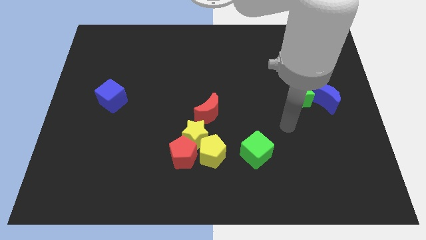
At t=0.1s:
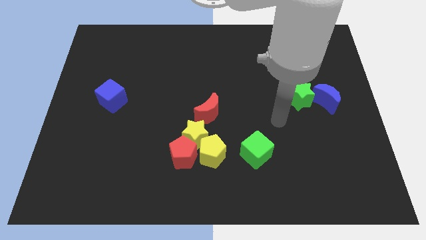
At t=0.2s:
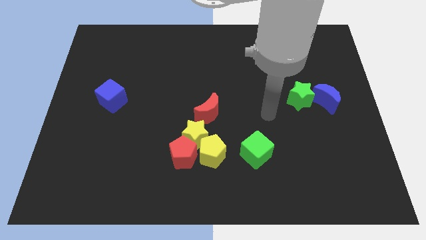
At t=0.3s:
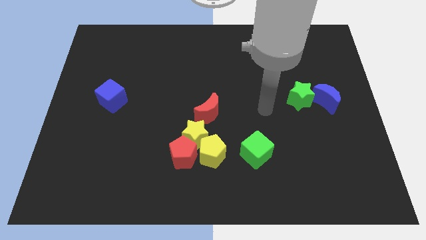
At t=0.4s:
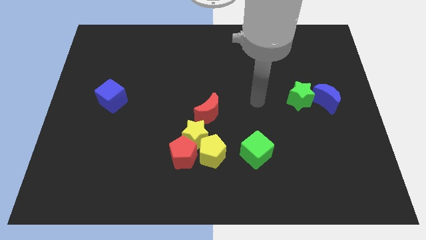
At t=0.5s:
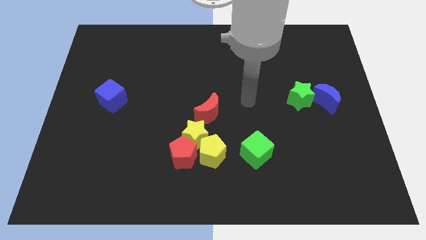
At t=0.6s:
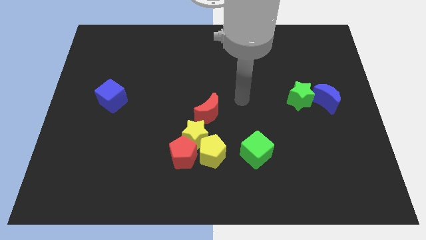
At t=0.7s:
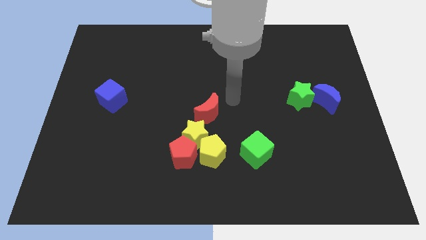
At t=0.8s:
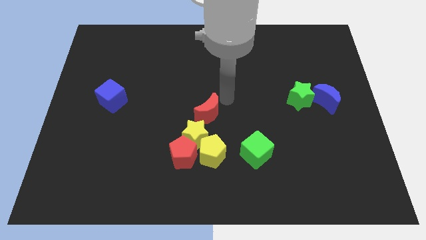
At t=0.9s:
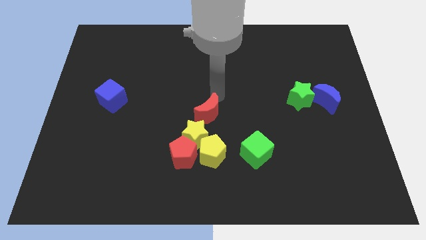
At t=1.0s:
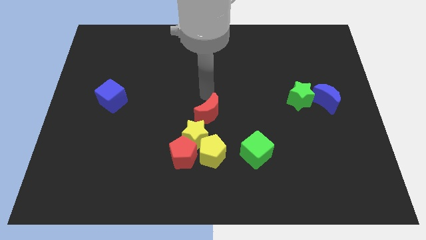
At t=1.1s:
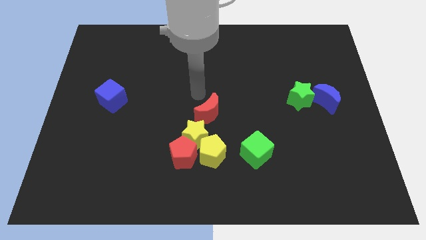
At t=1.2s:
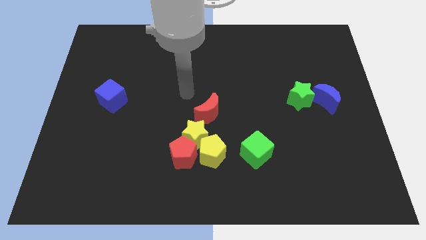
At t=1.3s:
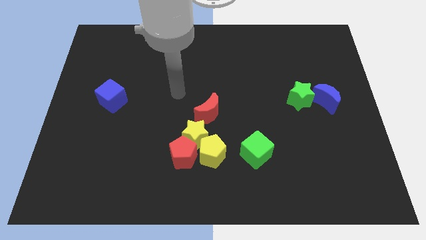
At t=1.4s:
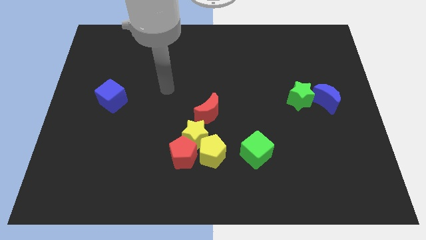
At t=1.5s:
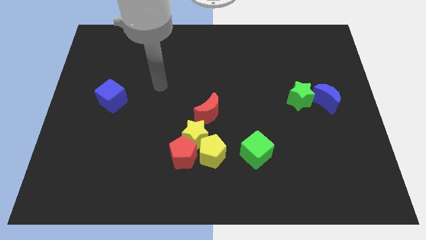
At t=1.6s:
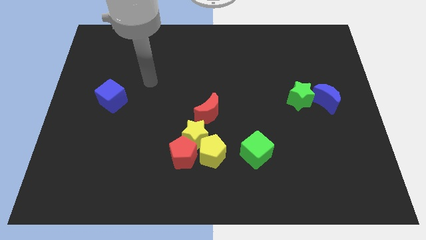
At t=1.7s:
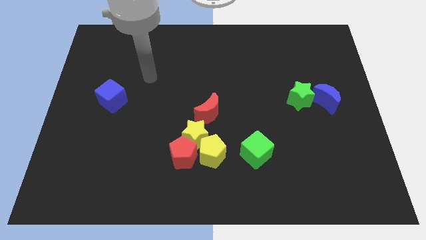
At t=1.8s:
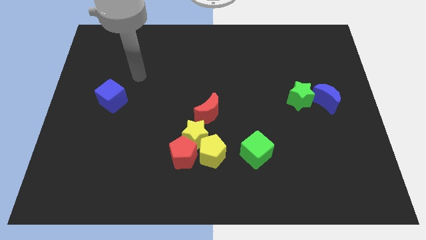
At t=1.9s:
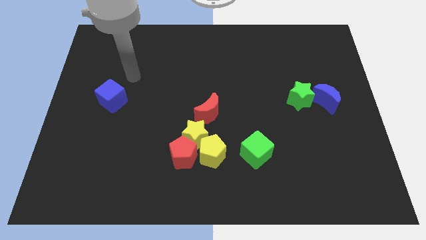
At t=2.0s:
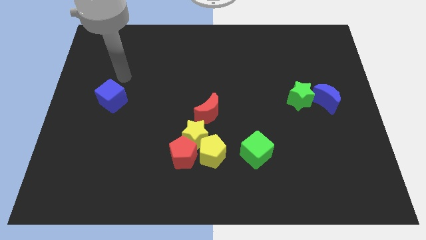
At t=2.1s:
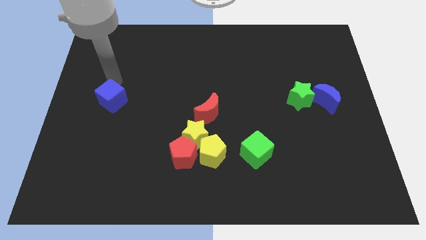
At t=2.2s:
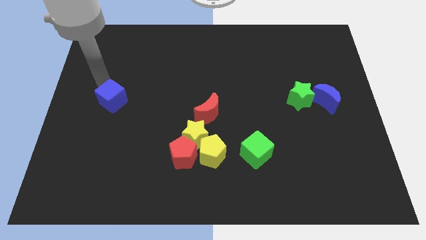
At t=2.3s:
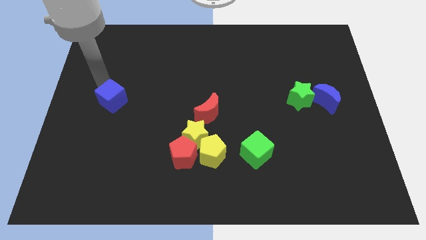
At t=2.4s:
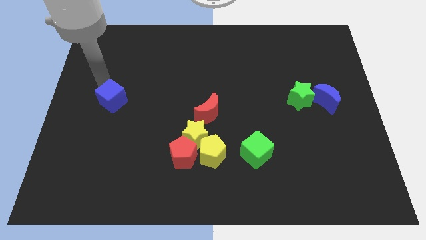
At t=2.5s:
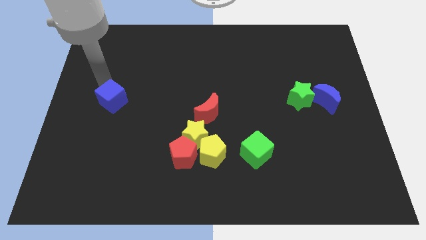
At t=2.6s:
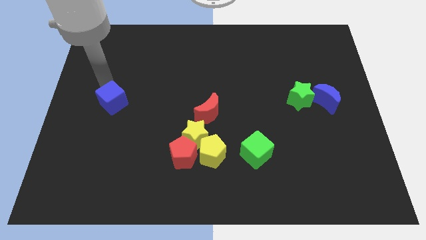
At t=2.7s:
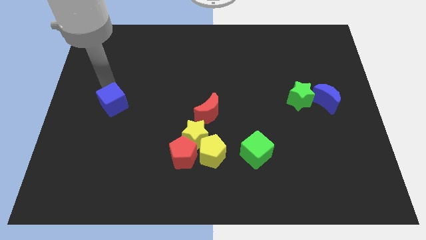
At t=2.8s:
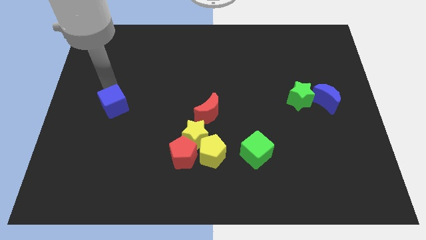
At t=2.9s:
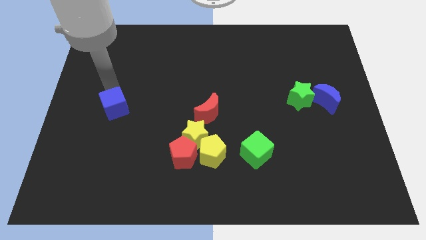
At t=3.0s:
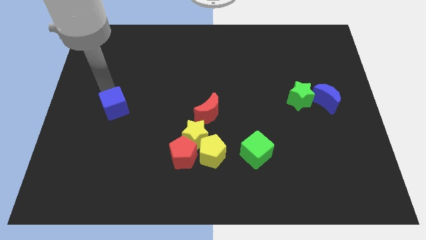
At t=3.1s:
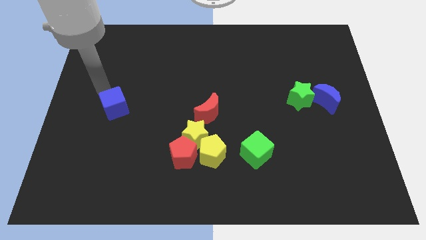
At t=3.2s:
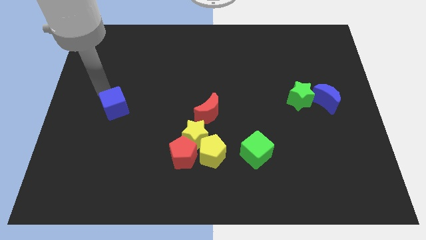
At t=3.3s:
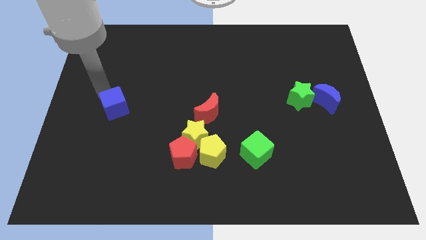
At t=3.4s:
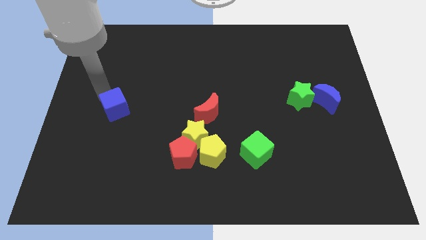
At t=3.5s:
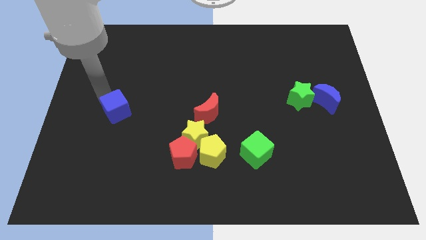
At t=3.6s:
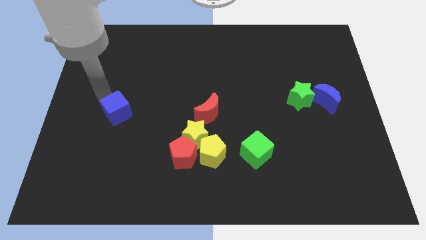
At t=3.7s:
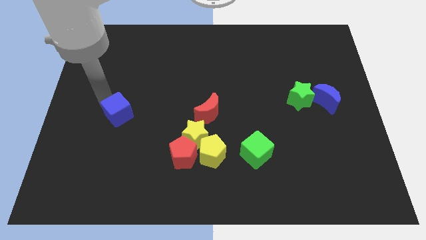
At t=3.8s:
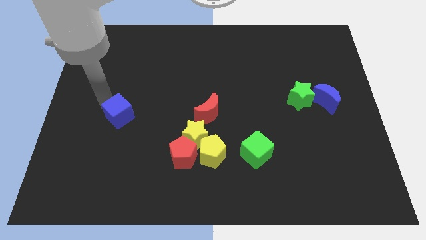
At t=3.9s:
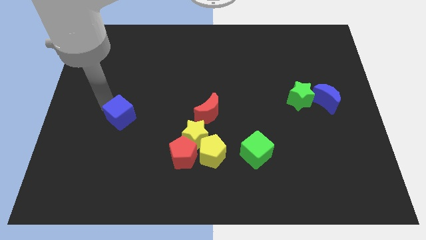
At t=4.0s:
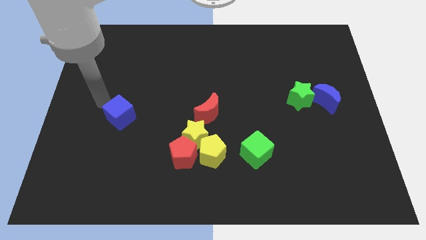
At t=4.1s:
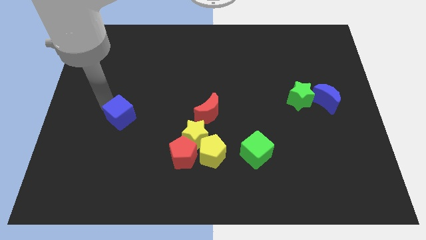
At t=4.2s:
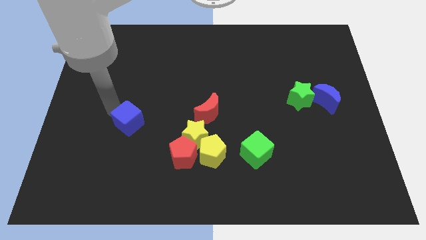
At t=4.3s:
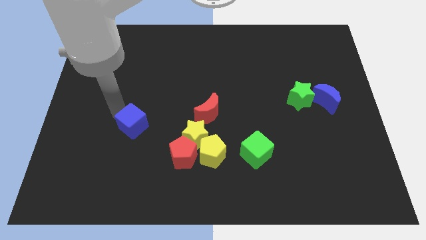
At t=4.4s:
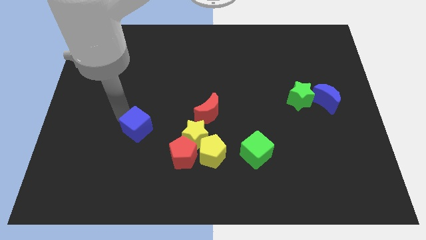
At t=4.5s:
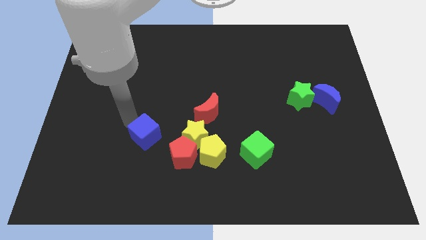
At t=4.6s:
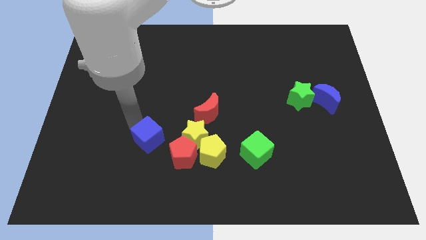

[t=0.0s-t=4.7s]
push the blue cube just left of the yellow pentagon

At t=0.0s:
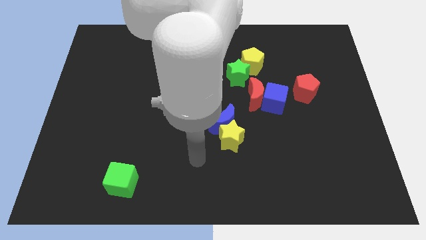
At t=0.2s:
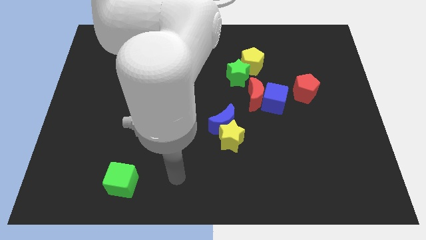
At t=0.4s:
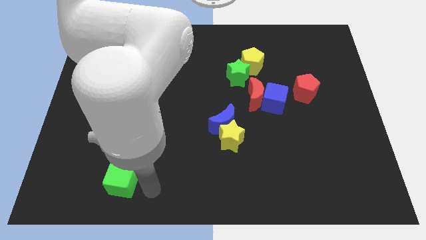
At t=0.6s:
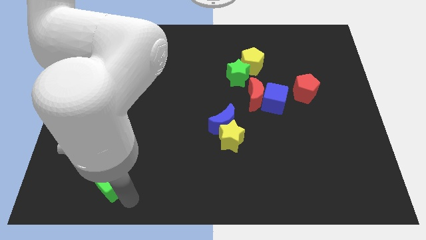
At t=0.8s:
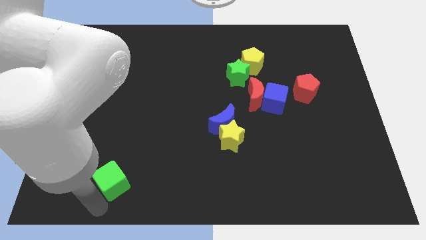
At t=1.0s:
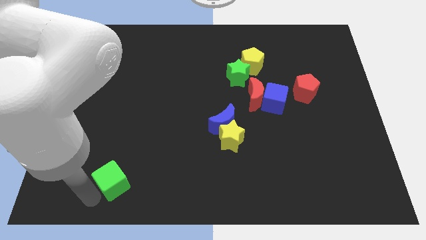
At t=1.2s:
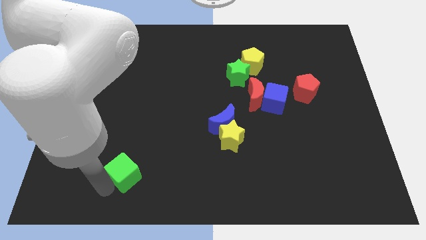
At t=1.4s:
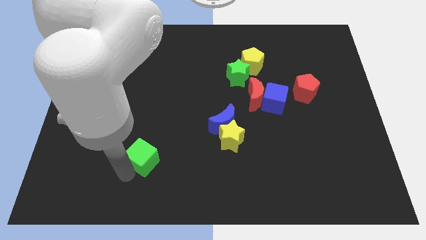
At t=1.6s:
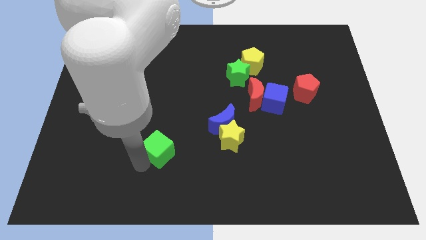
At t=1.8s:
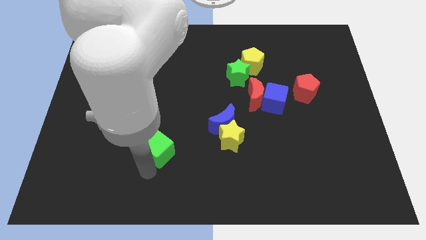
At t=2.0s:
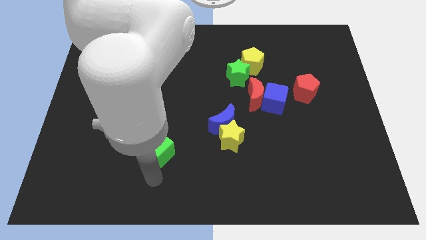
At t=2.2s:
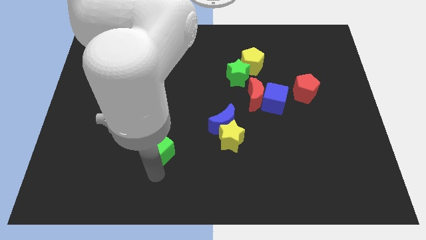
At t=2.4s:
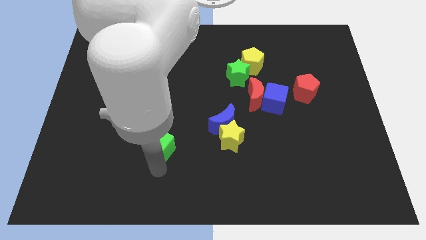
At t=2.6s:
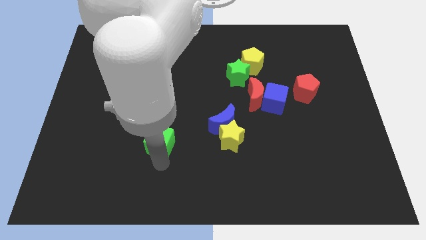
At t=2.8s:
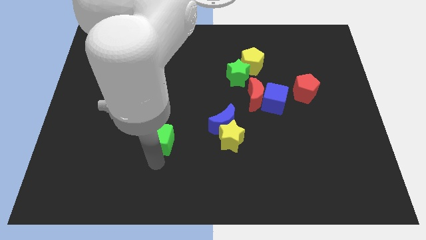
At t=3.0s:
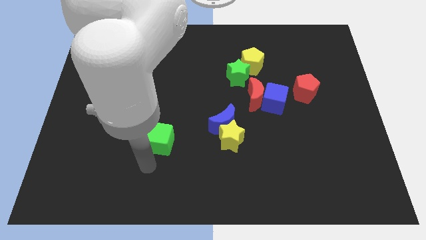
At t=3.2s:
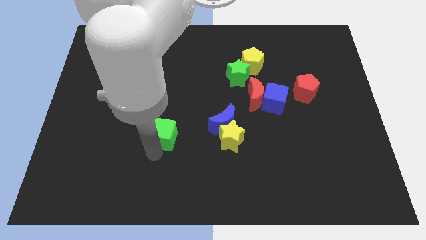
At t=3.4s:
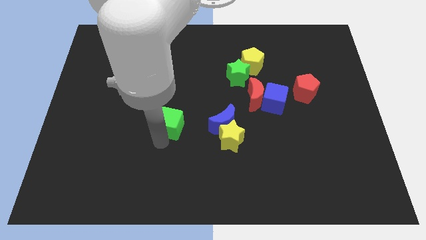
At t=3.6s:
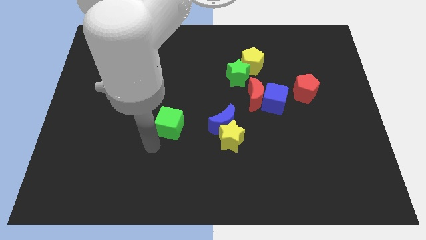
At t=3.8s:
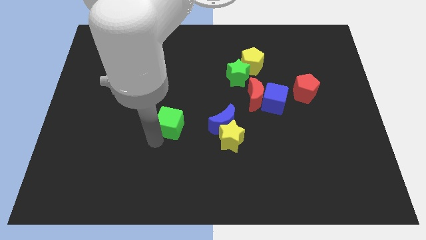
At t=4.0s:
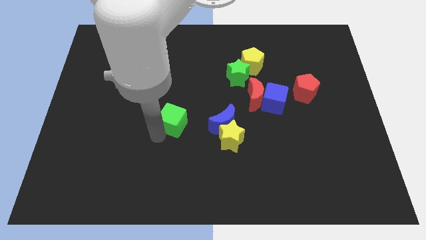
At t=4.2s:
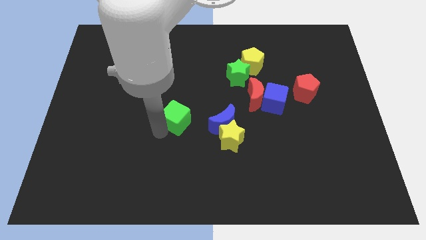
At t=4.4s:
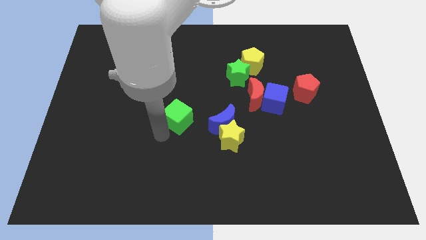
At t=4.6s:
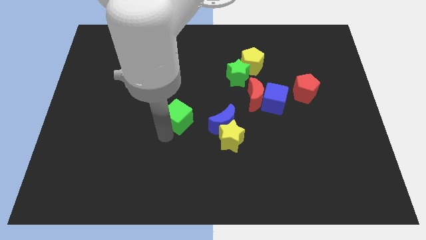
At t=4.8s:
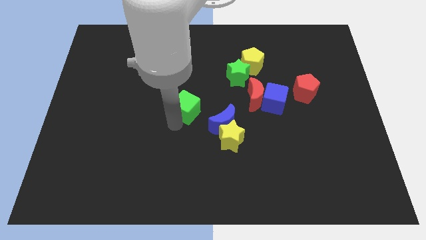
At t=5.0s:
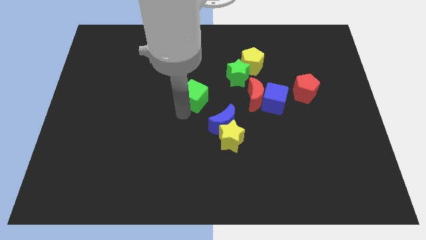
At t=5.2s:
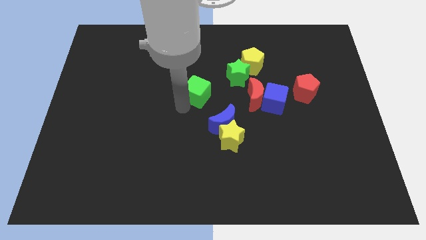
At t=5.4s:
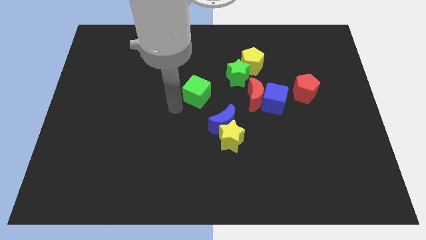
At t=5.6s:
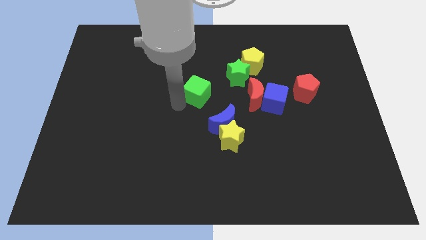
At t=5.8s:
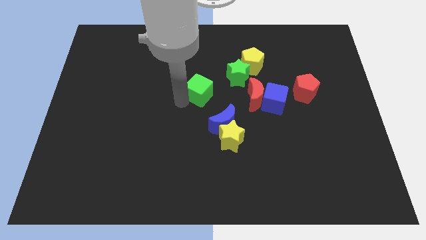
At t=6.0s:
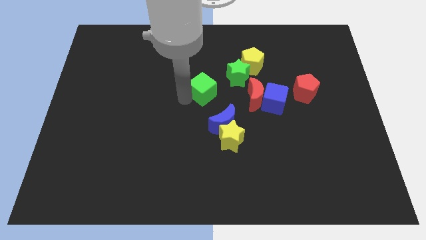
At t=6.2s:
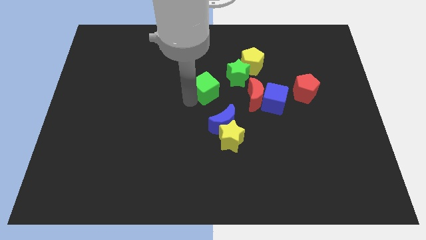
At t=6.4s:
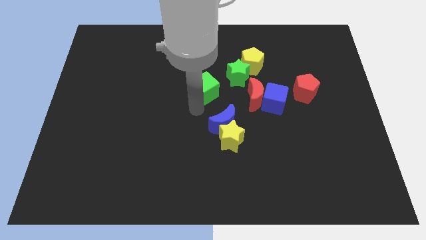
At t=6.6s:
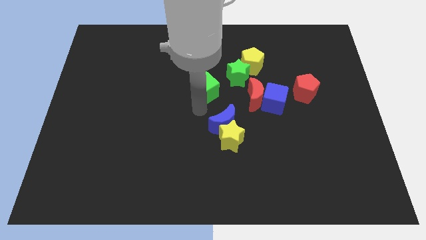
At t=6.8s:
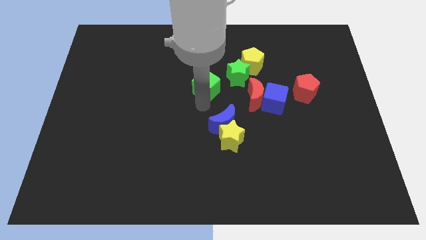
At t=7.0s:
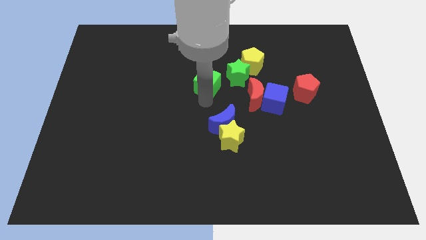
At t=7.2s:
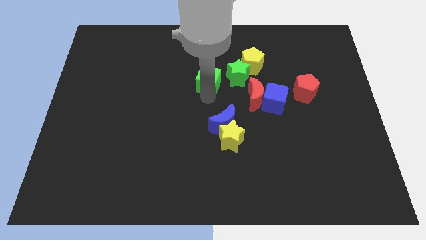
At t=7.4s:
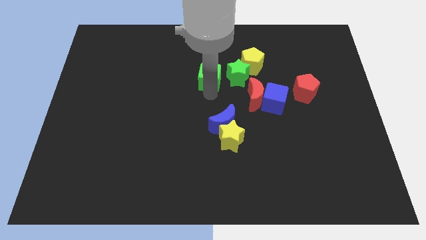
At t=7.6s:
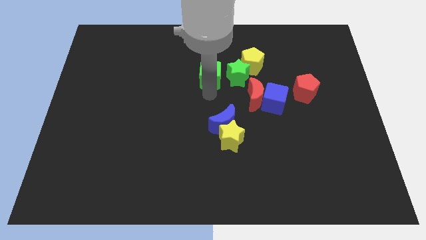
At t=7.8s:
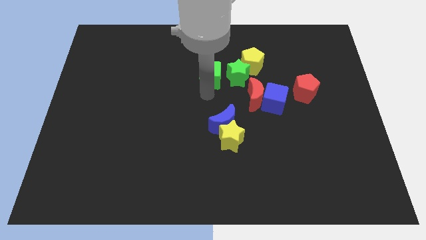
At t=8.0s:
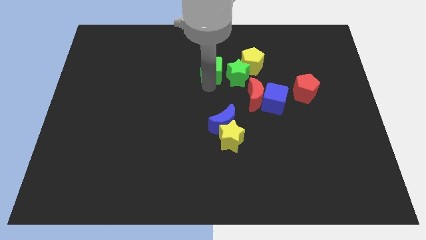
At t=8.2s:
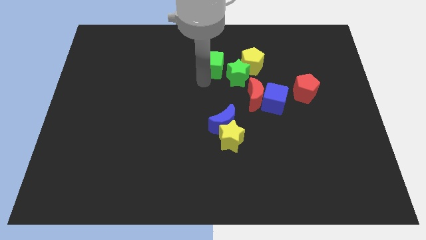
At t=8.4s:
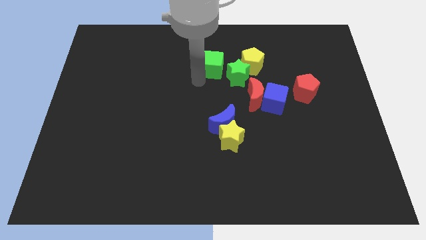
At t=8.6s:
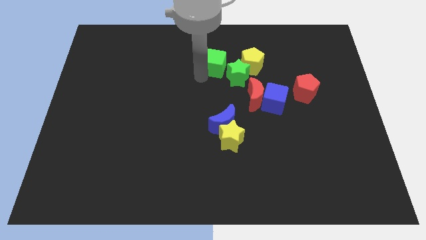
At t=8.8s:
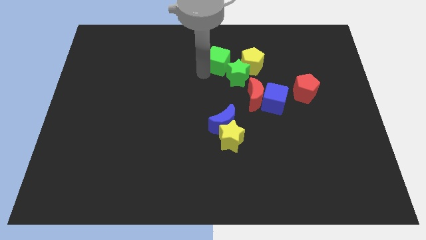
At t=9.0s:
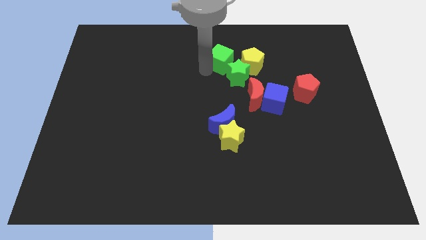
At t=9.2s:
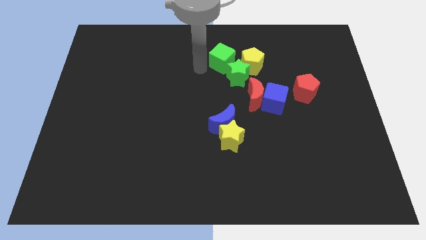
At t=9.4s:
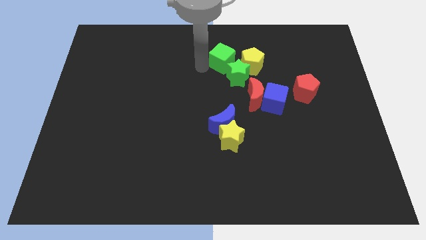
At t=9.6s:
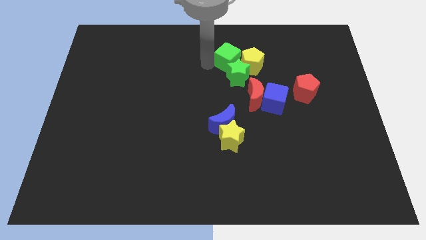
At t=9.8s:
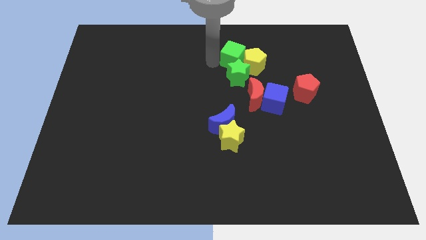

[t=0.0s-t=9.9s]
slide the green cube diagonally up and to the right of the green star
